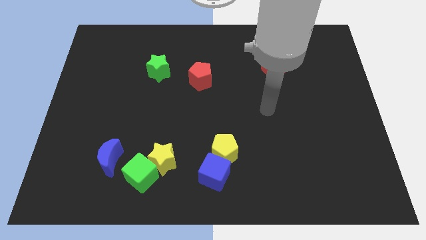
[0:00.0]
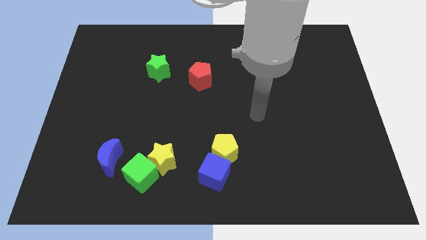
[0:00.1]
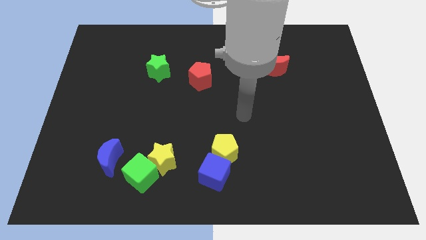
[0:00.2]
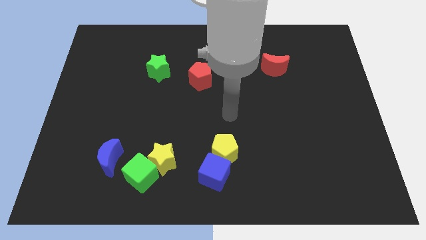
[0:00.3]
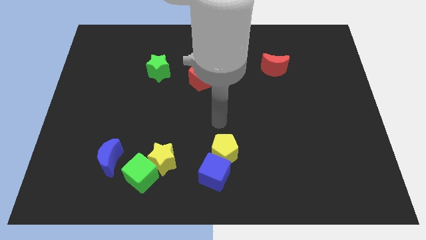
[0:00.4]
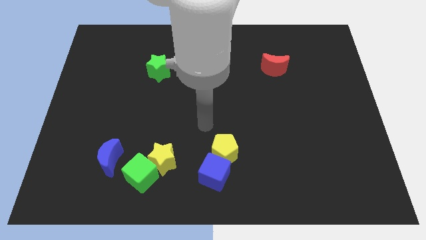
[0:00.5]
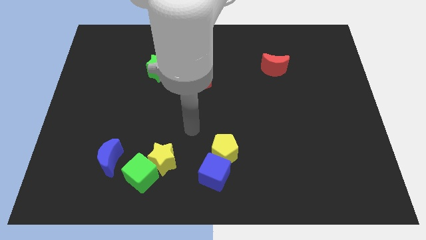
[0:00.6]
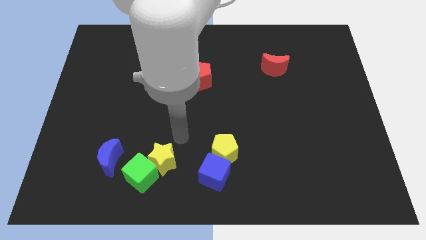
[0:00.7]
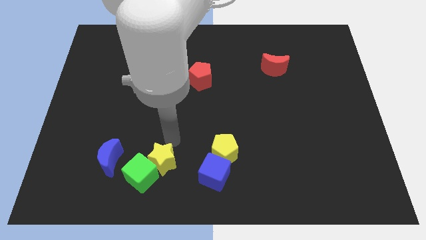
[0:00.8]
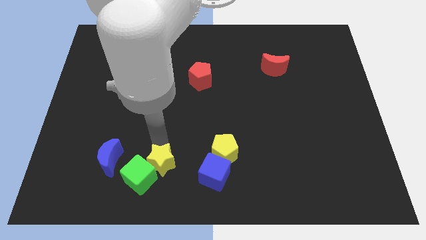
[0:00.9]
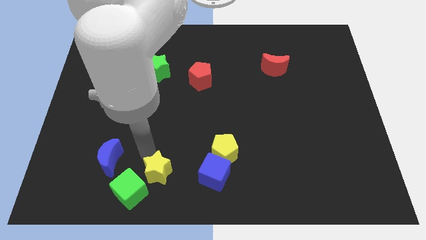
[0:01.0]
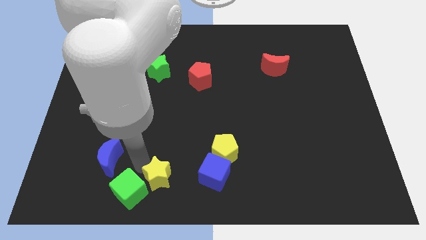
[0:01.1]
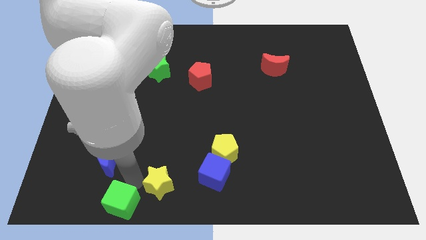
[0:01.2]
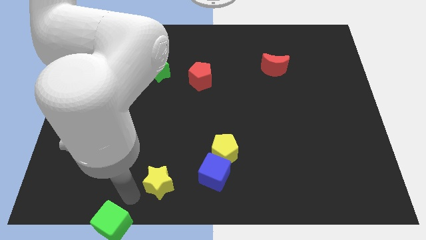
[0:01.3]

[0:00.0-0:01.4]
move the yellow star away from the green cube

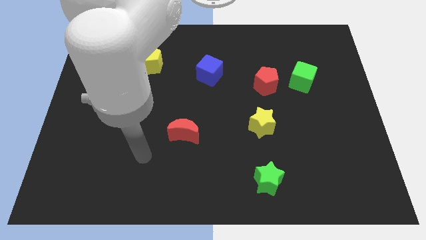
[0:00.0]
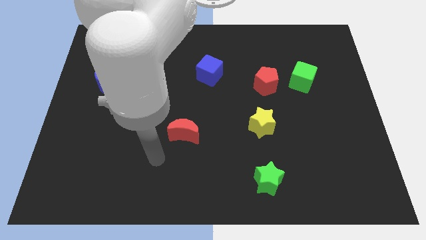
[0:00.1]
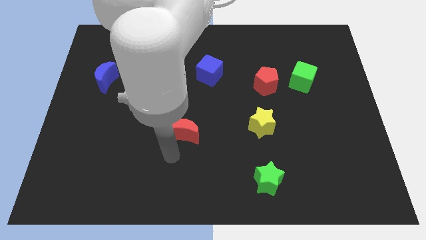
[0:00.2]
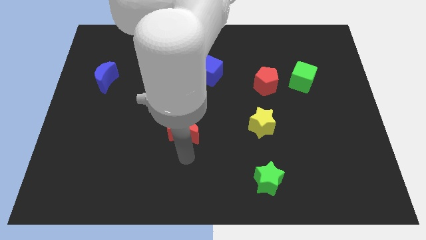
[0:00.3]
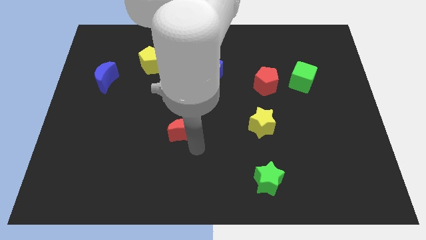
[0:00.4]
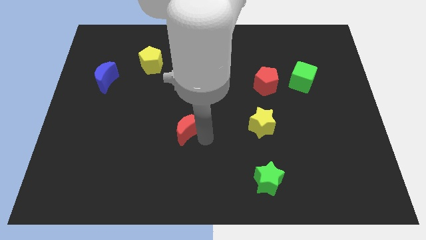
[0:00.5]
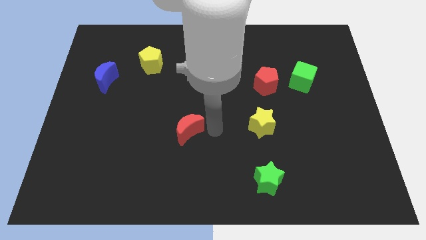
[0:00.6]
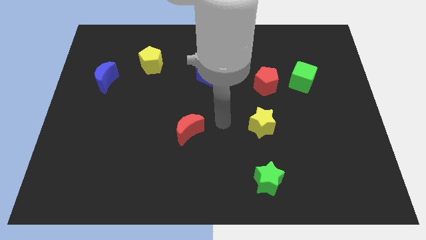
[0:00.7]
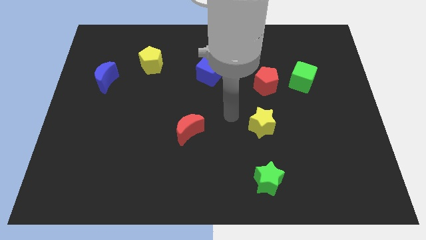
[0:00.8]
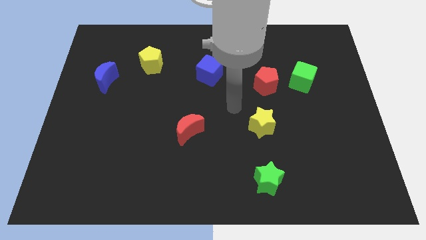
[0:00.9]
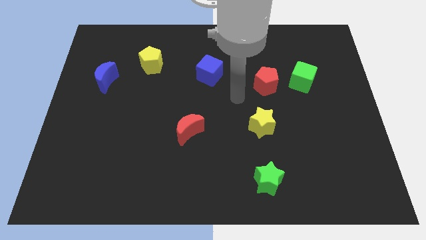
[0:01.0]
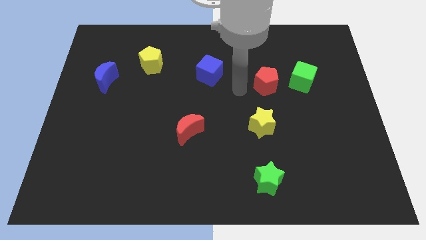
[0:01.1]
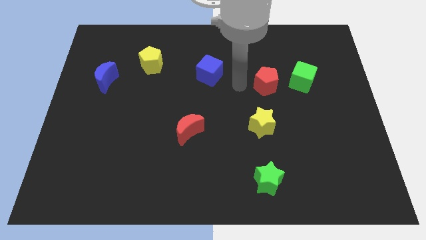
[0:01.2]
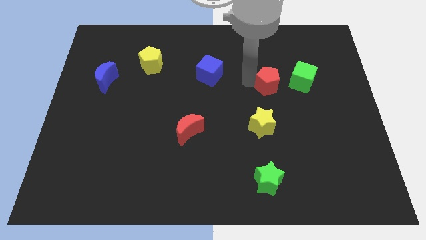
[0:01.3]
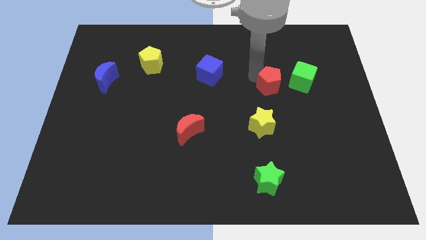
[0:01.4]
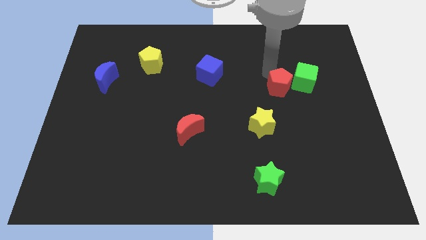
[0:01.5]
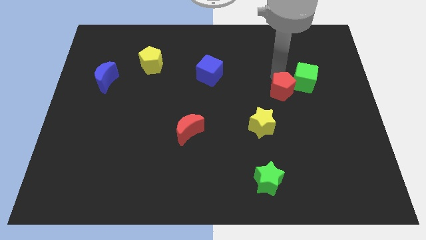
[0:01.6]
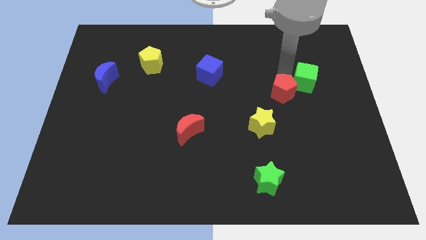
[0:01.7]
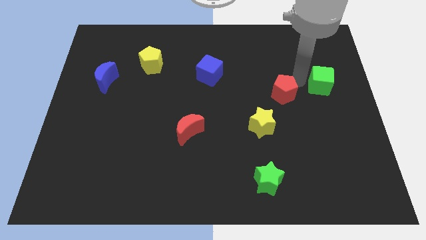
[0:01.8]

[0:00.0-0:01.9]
pull the red pentagon apart from the green cube

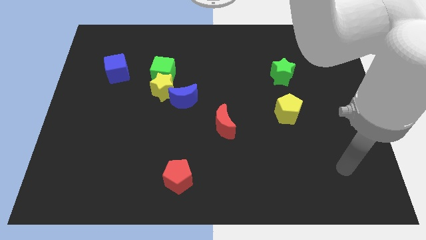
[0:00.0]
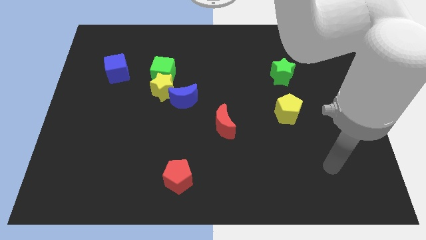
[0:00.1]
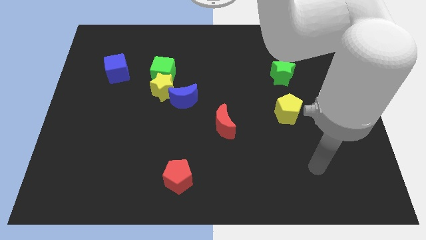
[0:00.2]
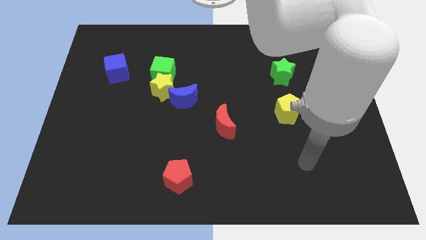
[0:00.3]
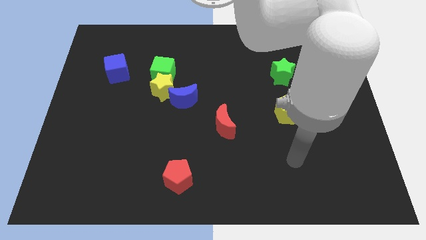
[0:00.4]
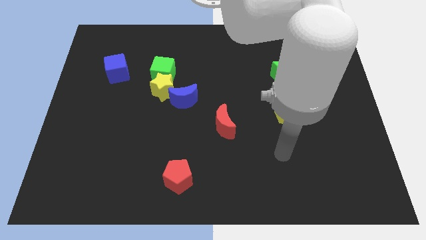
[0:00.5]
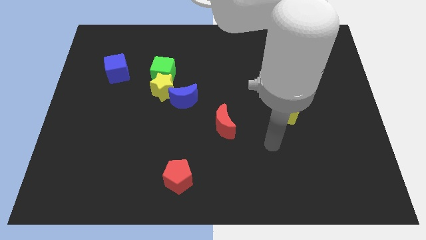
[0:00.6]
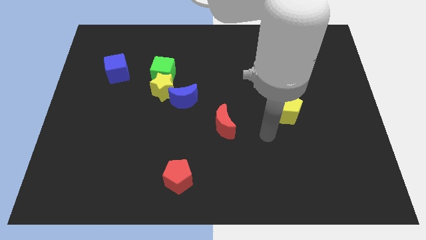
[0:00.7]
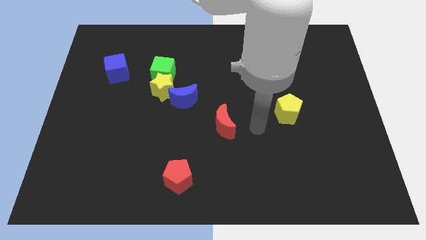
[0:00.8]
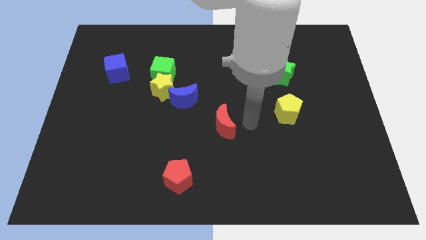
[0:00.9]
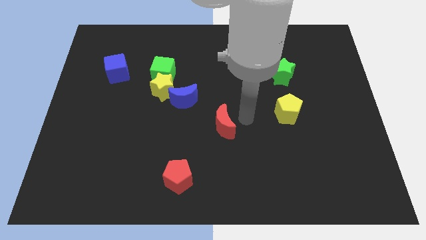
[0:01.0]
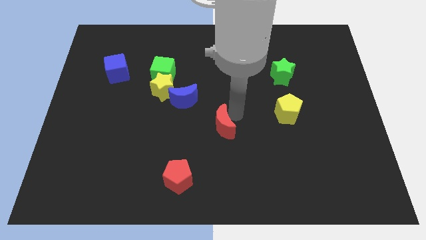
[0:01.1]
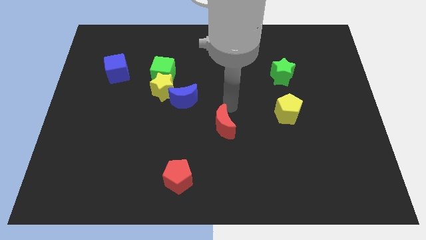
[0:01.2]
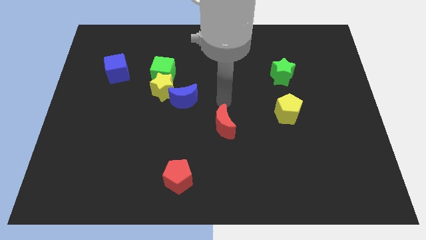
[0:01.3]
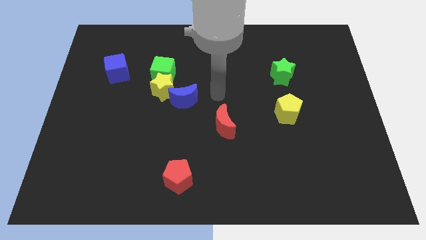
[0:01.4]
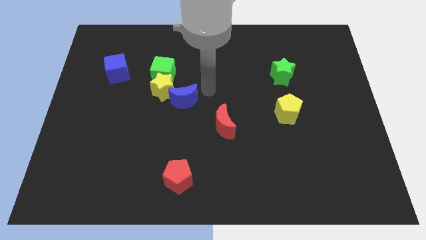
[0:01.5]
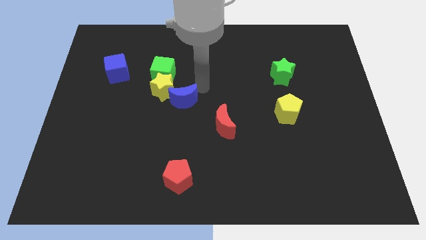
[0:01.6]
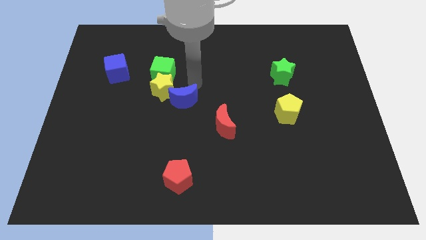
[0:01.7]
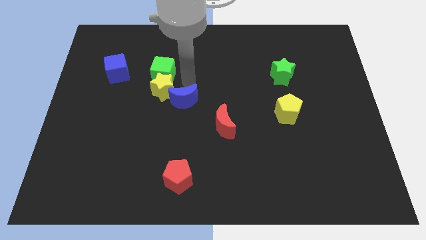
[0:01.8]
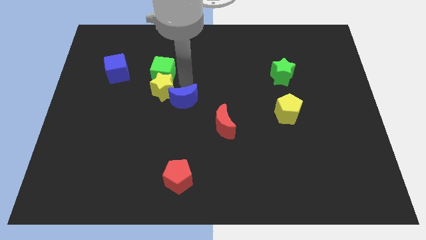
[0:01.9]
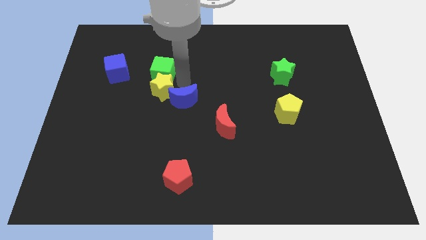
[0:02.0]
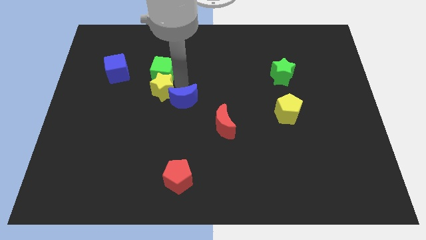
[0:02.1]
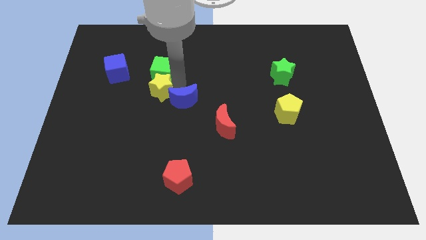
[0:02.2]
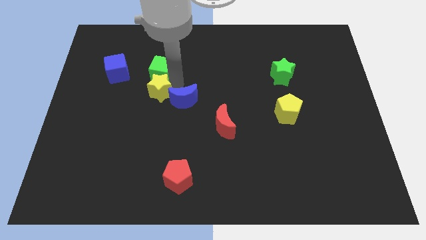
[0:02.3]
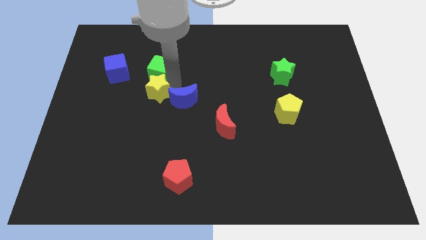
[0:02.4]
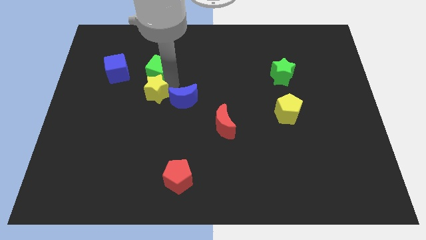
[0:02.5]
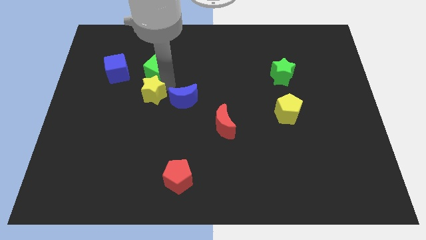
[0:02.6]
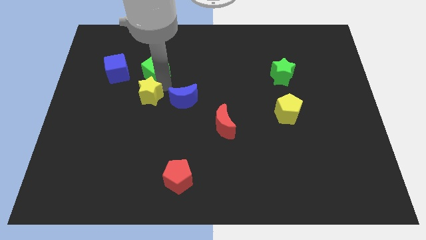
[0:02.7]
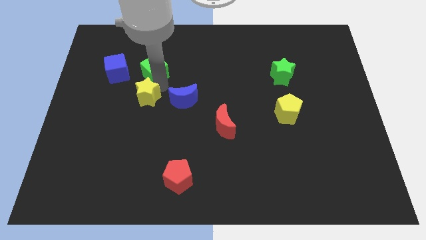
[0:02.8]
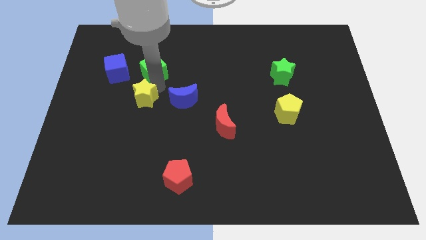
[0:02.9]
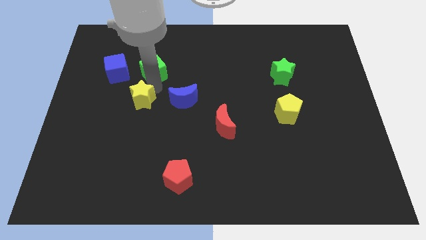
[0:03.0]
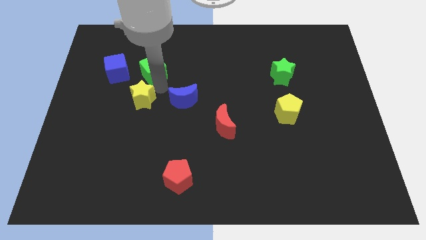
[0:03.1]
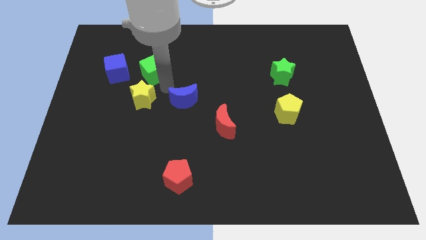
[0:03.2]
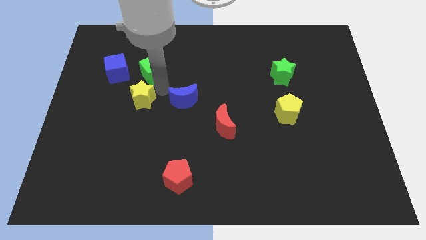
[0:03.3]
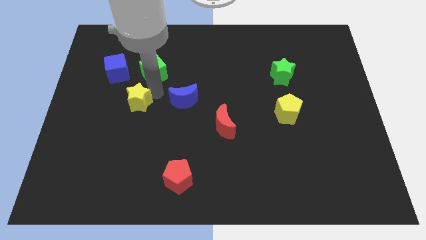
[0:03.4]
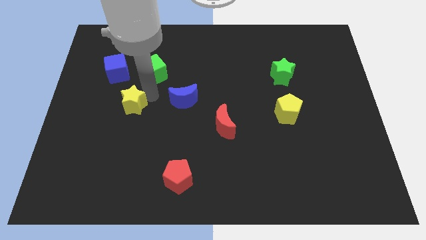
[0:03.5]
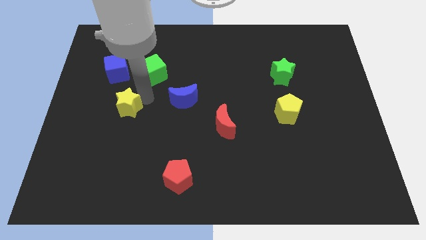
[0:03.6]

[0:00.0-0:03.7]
pull the yellow star apart from the green cube and blue moon

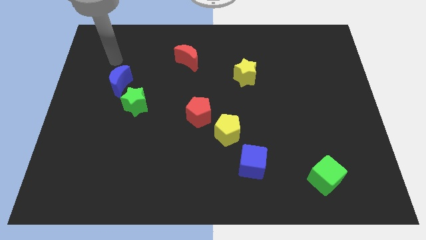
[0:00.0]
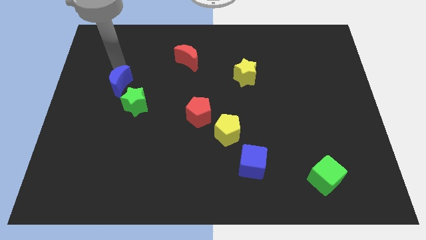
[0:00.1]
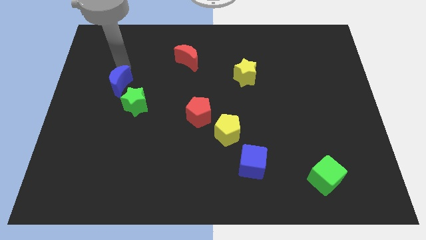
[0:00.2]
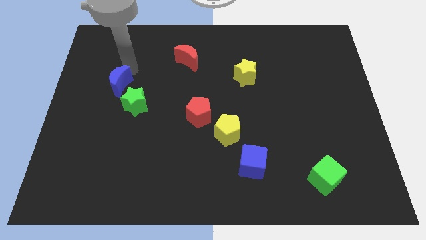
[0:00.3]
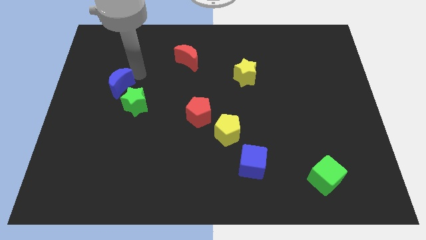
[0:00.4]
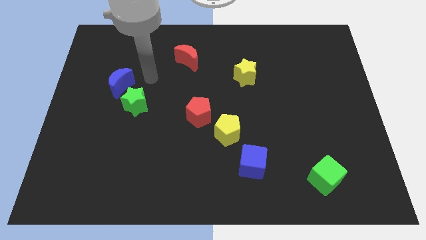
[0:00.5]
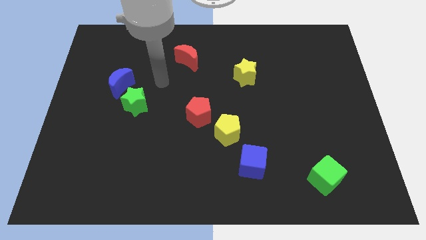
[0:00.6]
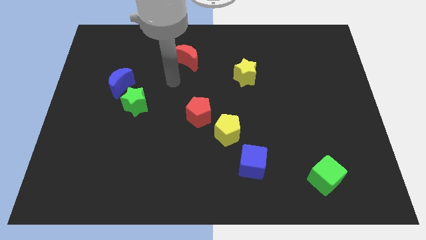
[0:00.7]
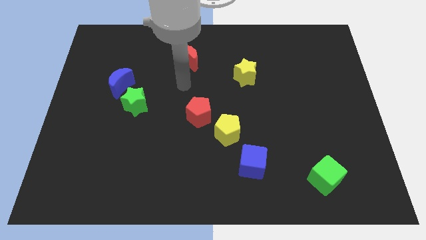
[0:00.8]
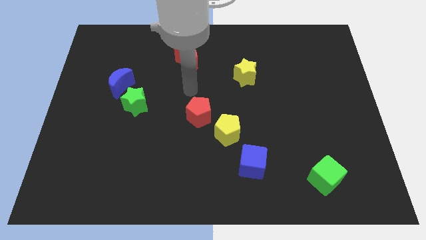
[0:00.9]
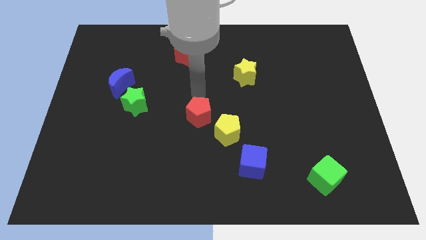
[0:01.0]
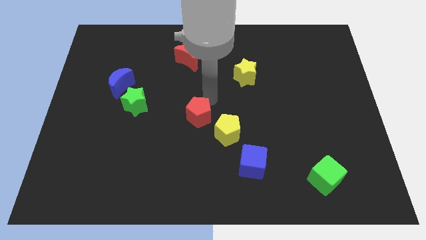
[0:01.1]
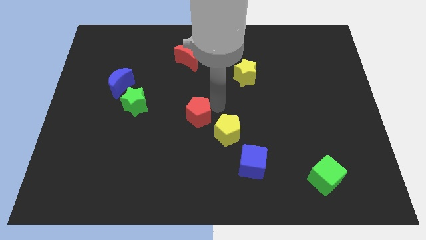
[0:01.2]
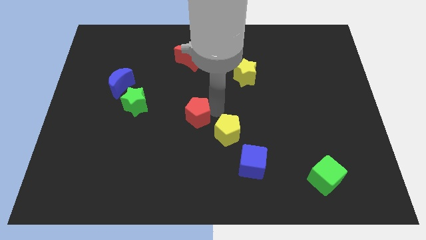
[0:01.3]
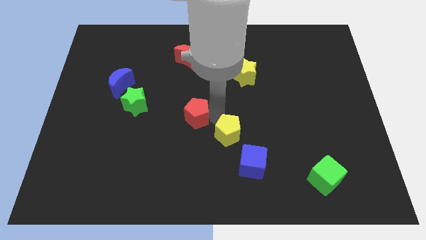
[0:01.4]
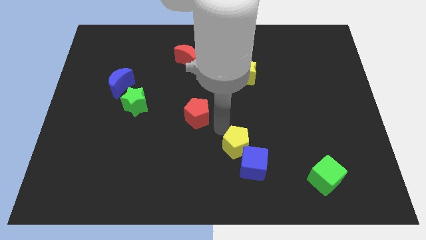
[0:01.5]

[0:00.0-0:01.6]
pull the red pentagon apart from the yellow pentagon

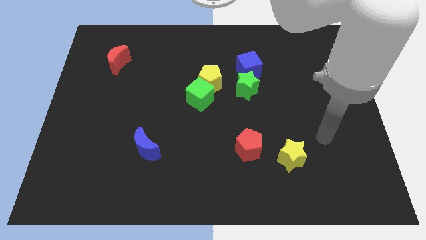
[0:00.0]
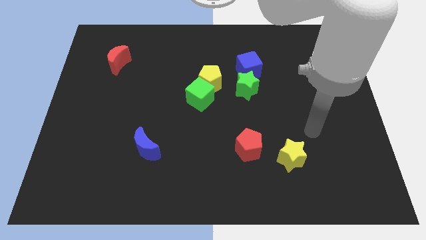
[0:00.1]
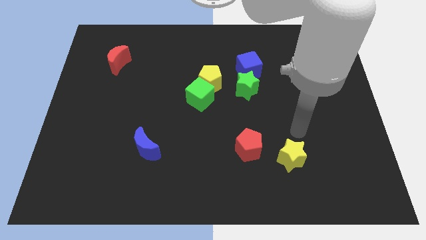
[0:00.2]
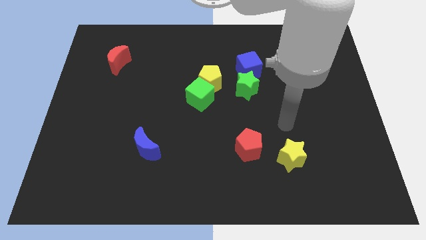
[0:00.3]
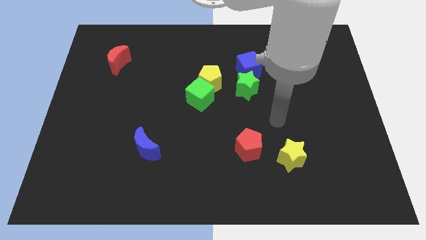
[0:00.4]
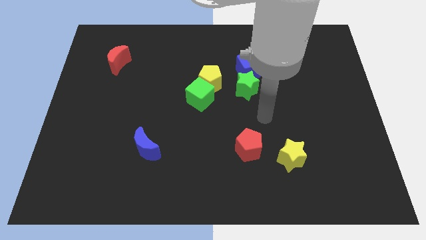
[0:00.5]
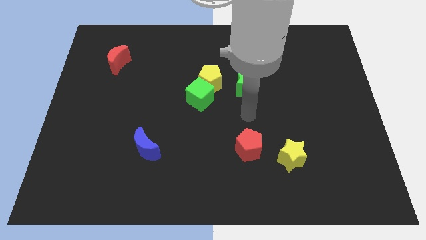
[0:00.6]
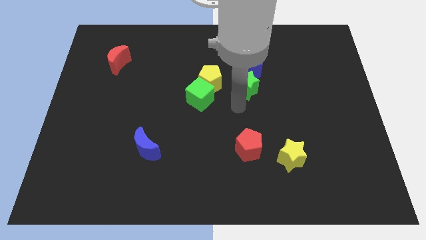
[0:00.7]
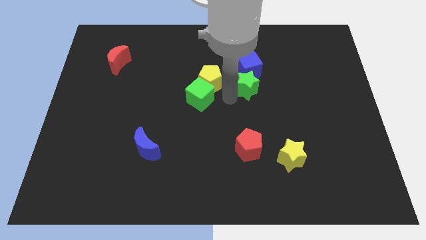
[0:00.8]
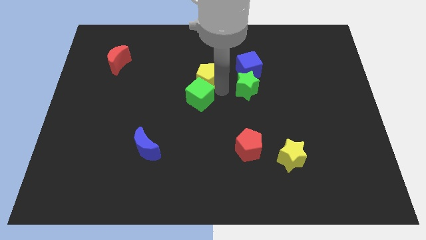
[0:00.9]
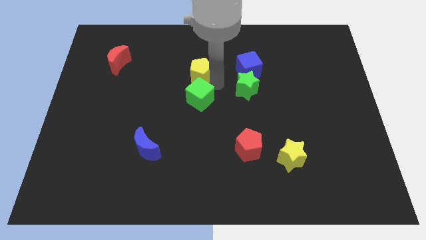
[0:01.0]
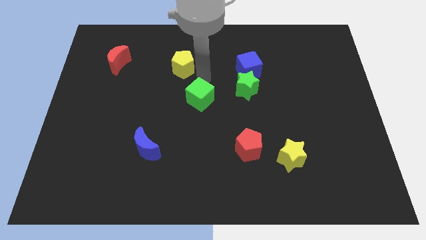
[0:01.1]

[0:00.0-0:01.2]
pull the green cube apart from the yellow pentagon
